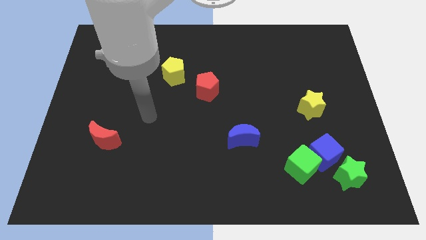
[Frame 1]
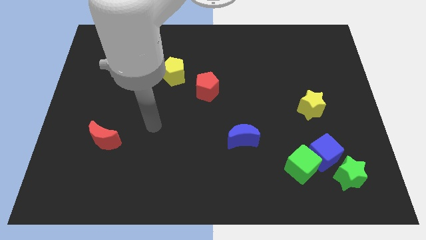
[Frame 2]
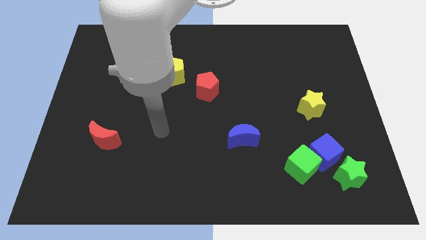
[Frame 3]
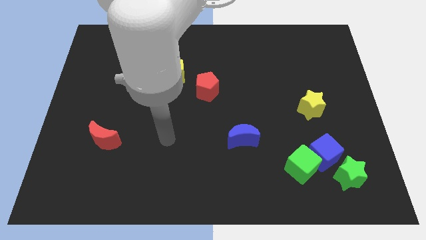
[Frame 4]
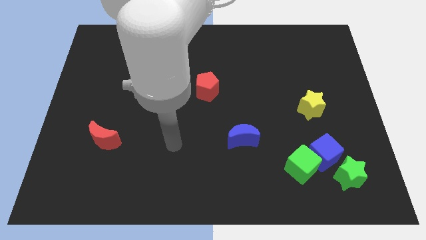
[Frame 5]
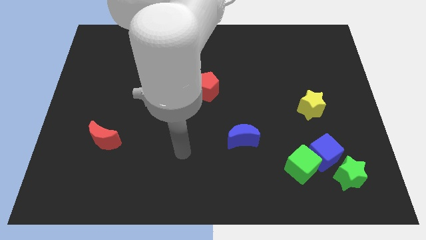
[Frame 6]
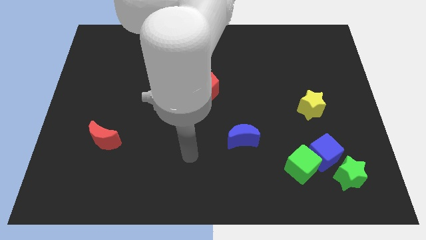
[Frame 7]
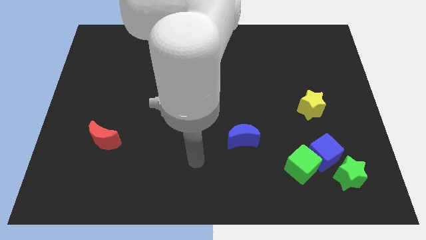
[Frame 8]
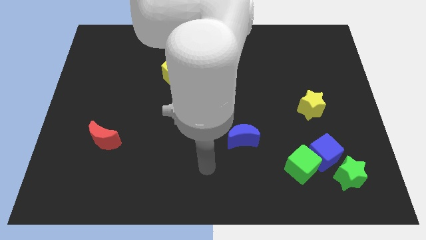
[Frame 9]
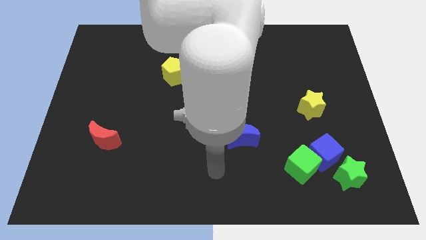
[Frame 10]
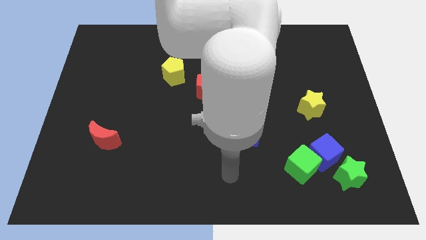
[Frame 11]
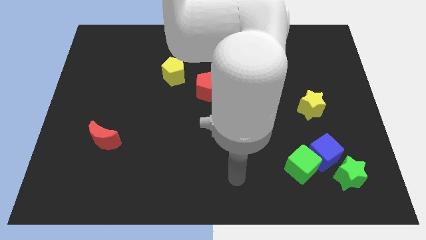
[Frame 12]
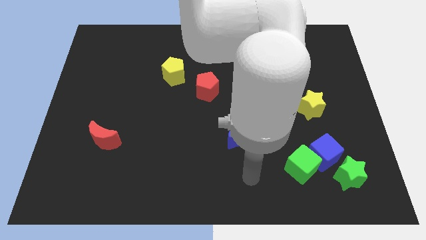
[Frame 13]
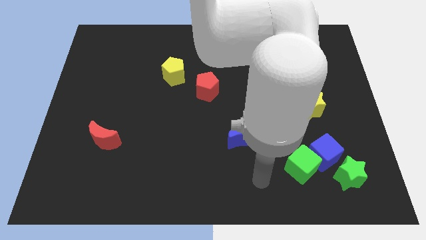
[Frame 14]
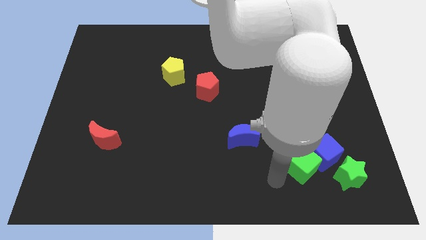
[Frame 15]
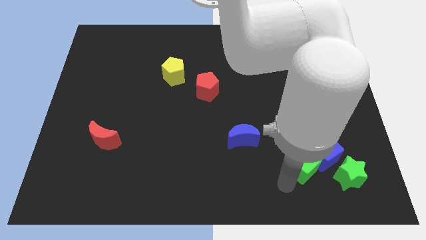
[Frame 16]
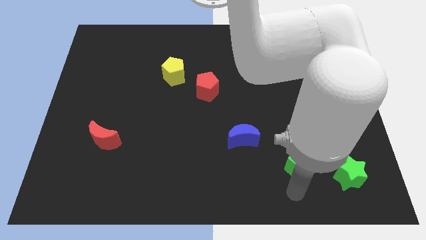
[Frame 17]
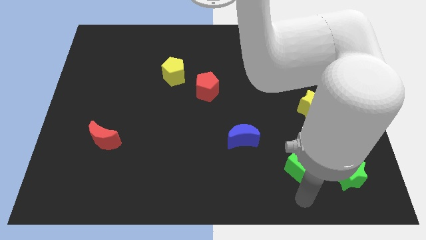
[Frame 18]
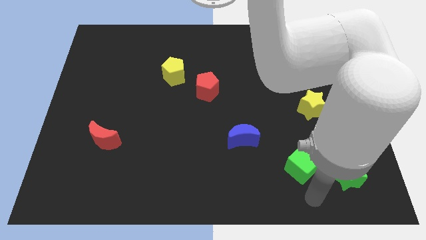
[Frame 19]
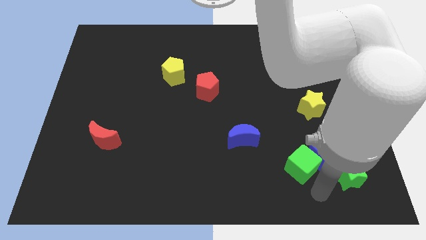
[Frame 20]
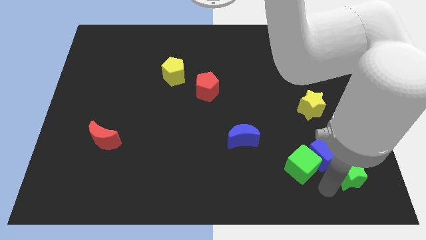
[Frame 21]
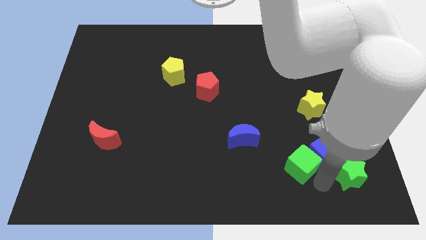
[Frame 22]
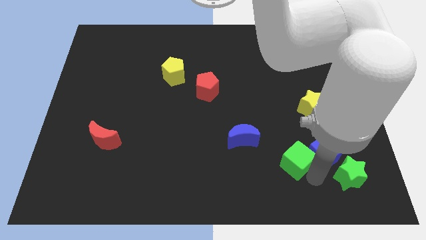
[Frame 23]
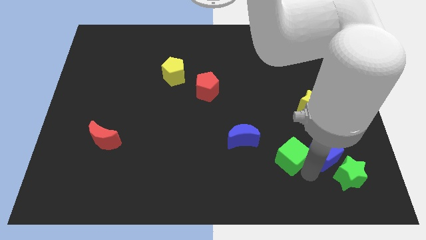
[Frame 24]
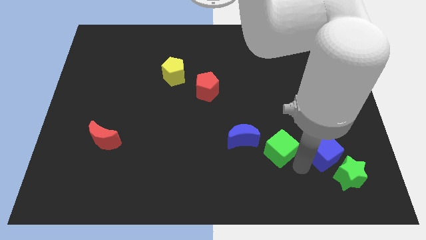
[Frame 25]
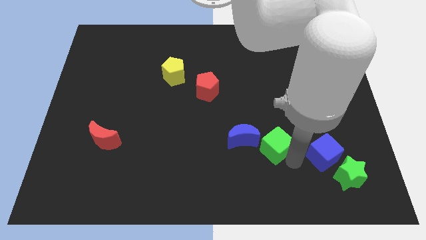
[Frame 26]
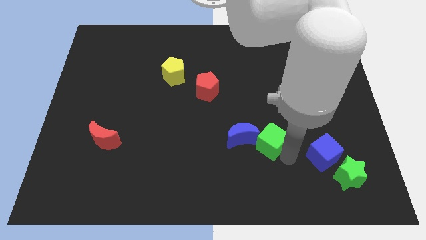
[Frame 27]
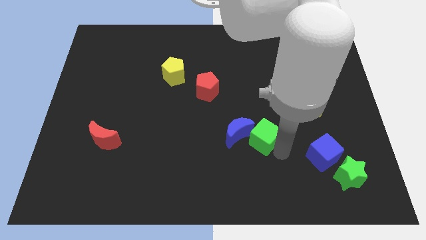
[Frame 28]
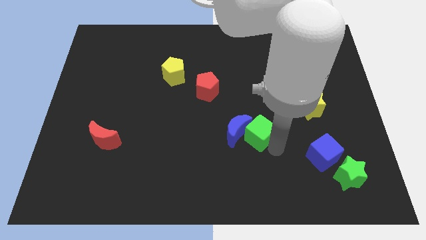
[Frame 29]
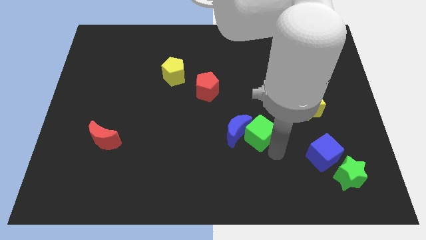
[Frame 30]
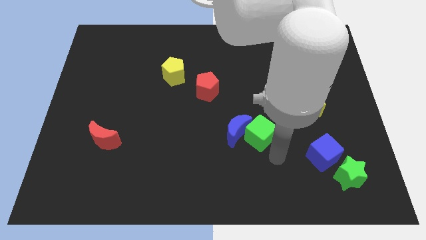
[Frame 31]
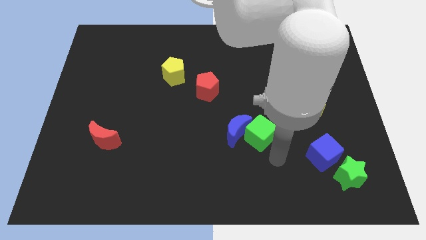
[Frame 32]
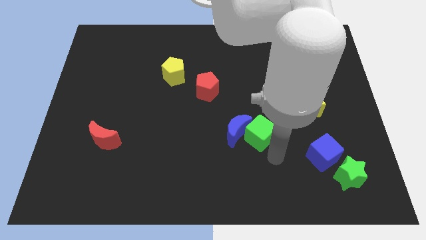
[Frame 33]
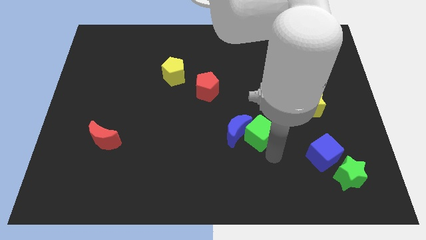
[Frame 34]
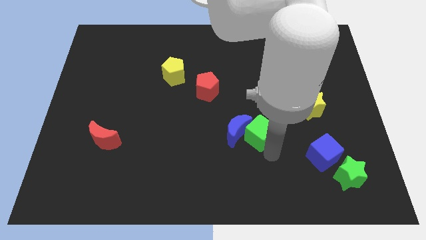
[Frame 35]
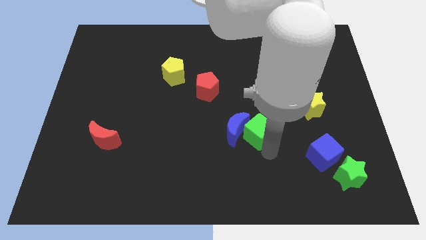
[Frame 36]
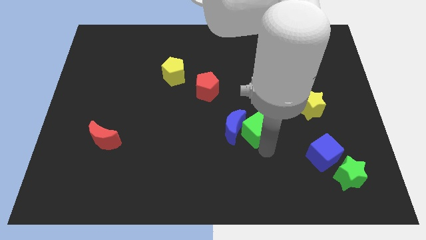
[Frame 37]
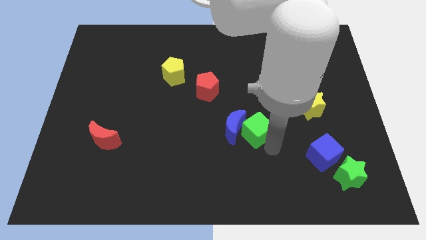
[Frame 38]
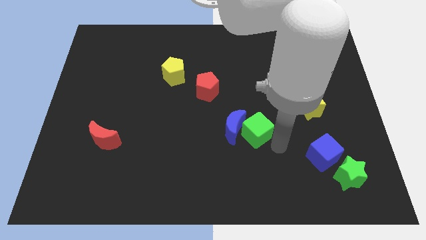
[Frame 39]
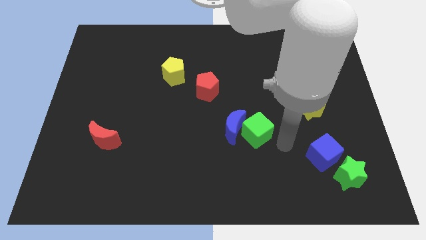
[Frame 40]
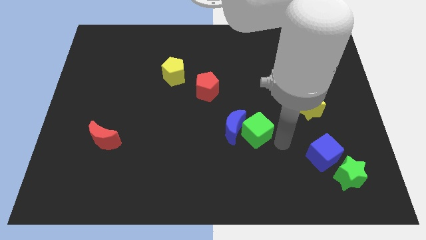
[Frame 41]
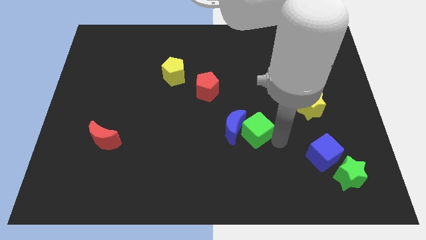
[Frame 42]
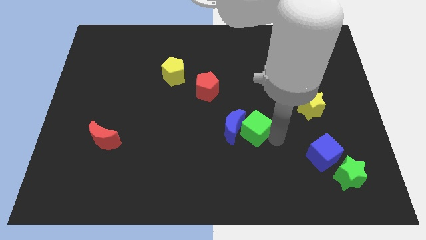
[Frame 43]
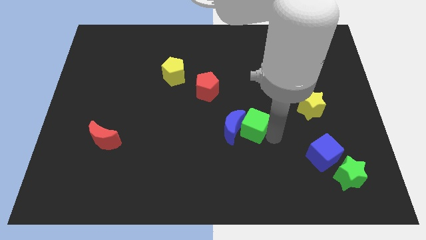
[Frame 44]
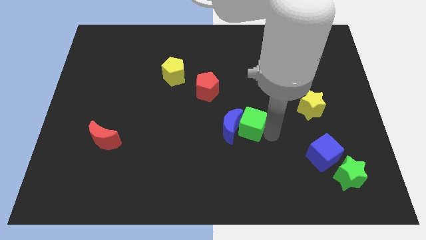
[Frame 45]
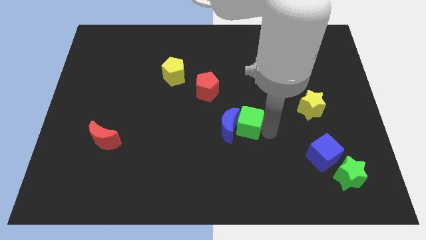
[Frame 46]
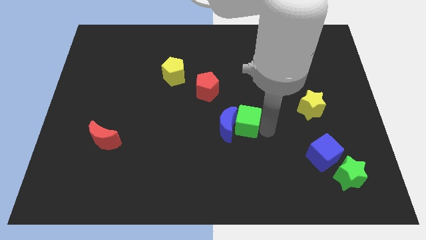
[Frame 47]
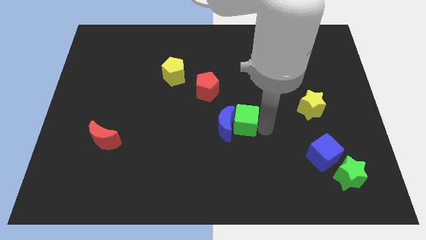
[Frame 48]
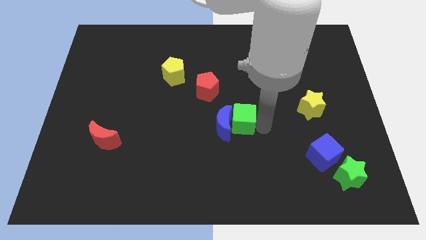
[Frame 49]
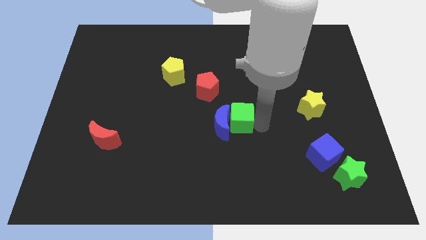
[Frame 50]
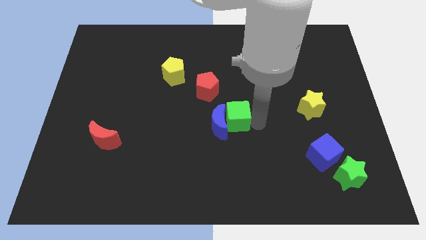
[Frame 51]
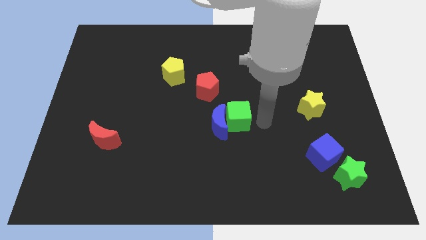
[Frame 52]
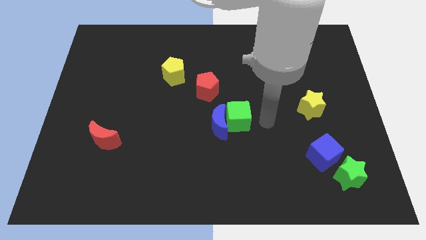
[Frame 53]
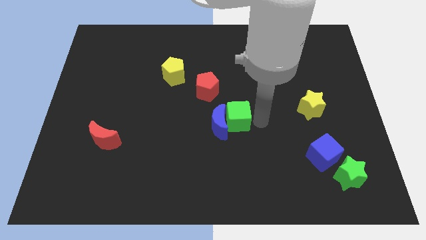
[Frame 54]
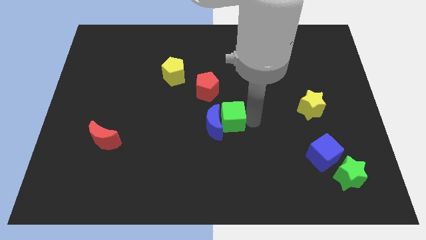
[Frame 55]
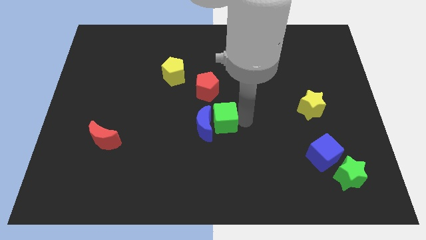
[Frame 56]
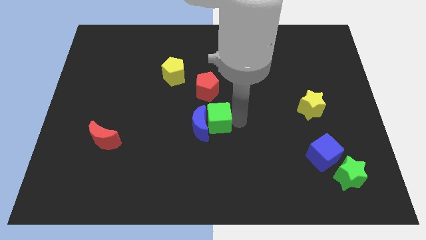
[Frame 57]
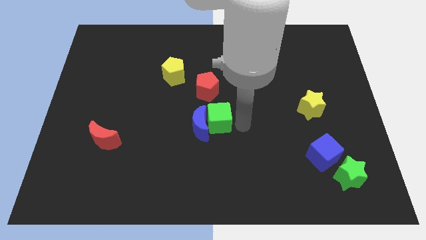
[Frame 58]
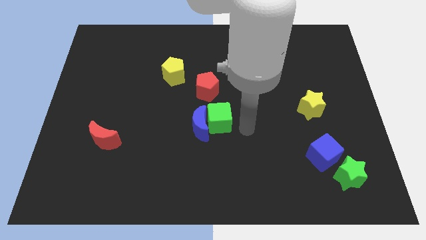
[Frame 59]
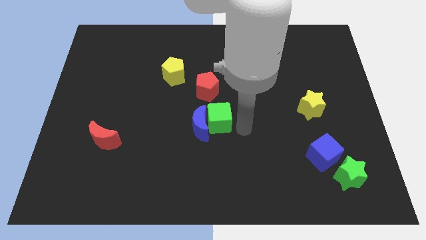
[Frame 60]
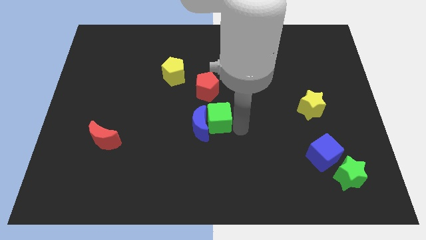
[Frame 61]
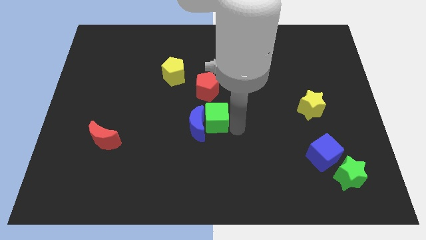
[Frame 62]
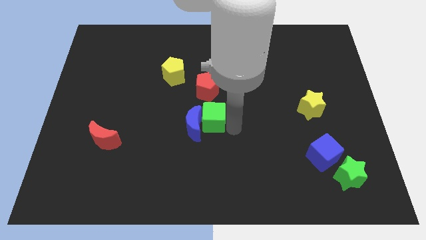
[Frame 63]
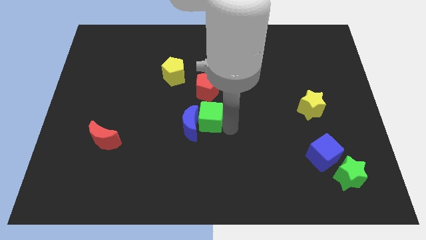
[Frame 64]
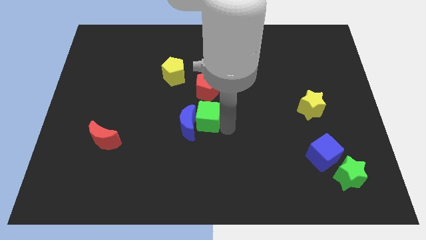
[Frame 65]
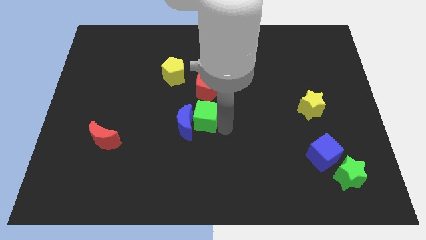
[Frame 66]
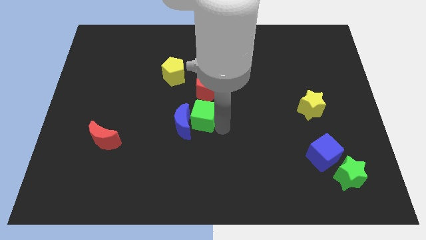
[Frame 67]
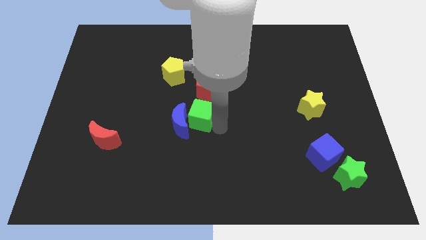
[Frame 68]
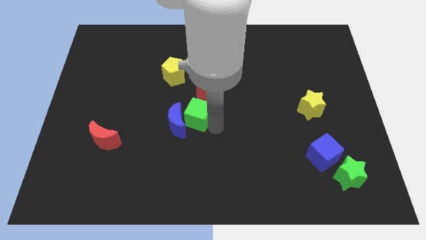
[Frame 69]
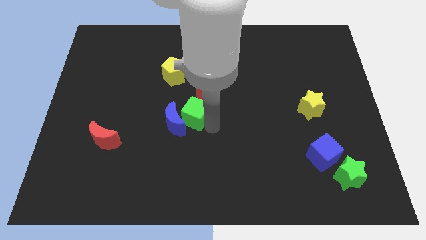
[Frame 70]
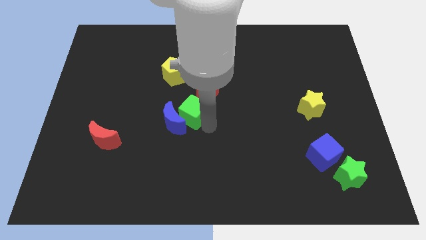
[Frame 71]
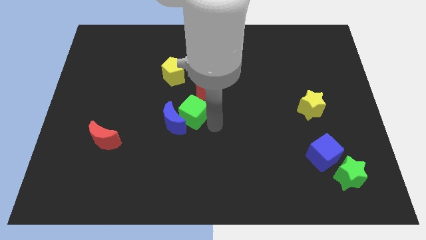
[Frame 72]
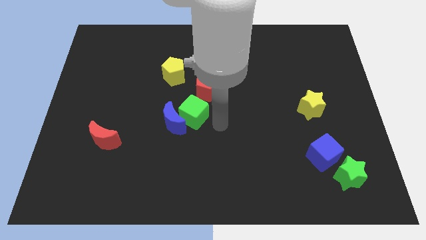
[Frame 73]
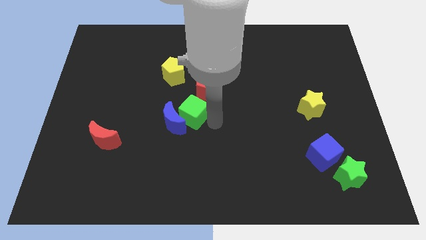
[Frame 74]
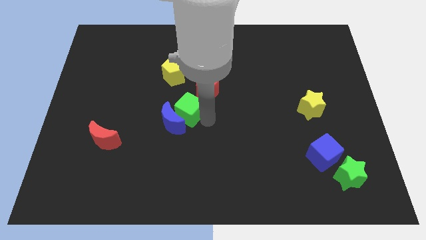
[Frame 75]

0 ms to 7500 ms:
slide the green cube to the bottom side of the yellow pentagon

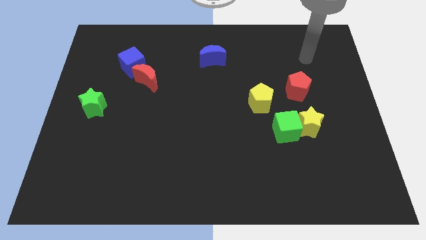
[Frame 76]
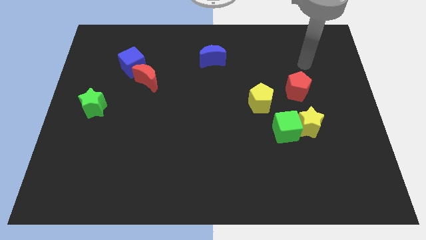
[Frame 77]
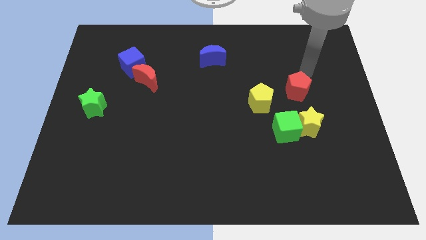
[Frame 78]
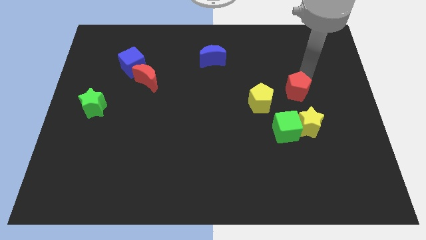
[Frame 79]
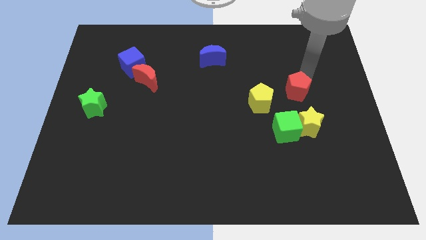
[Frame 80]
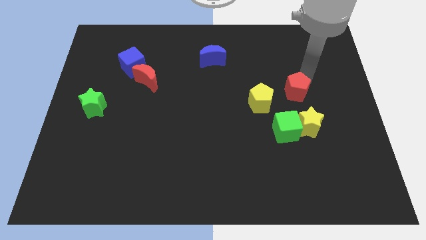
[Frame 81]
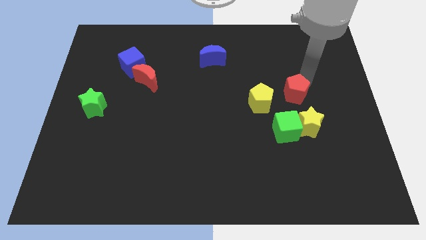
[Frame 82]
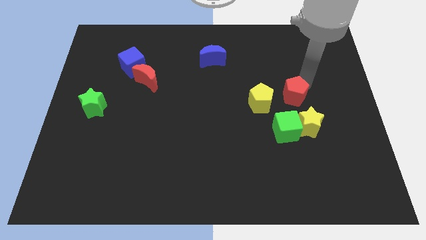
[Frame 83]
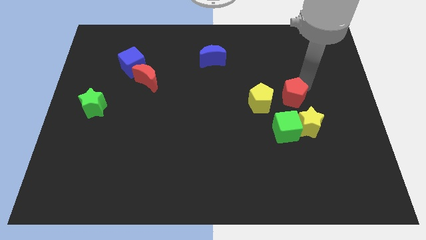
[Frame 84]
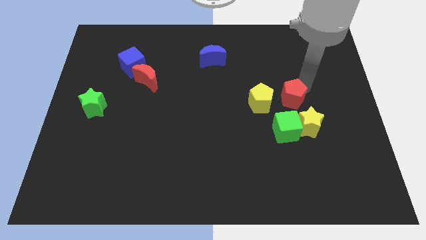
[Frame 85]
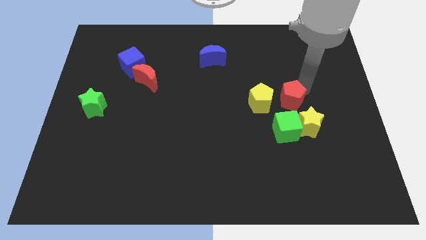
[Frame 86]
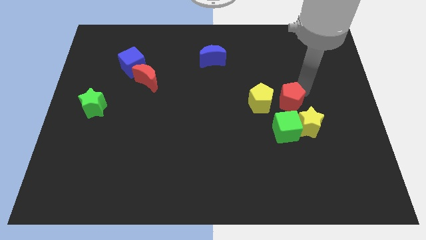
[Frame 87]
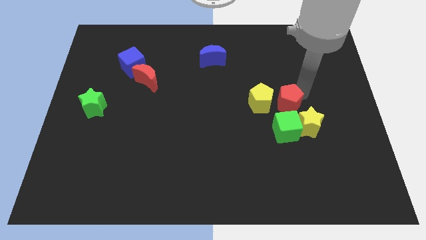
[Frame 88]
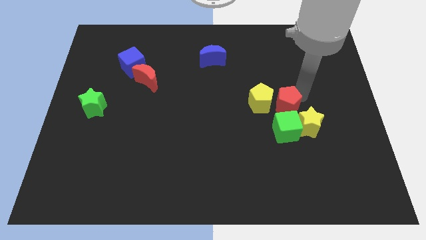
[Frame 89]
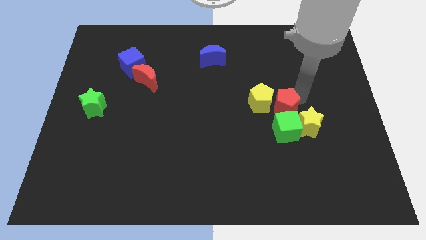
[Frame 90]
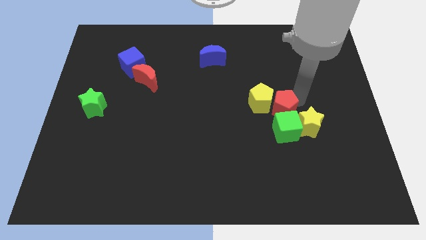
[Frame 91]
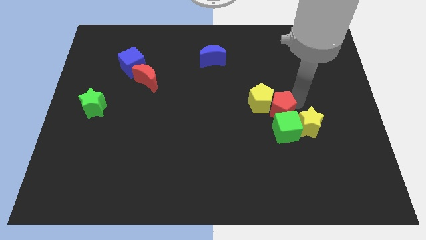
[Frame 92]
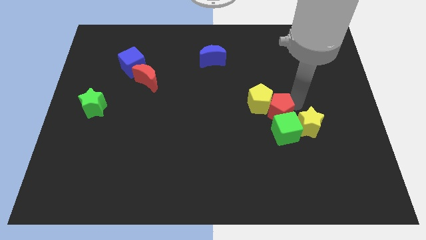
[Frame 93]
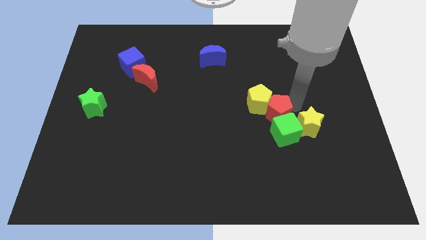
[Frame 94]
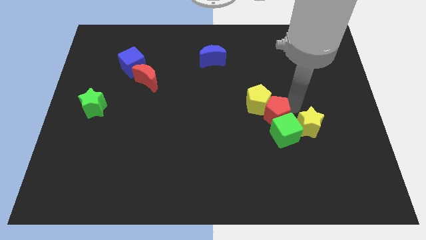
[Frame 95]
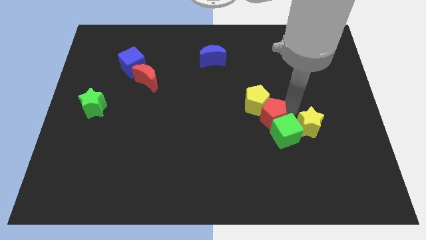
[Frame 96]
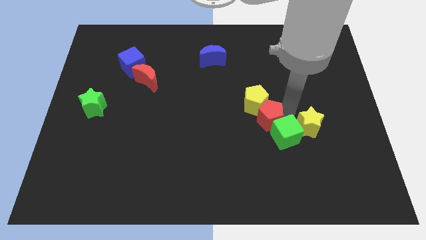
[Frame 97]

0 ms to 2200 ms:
put the red pentagon to the left side of the green cube
